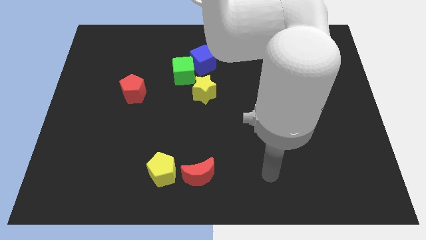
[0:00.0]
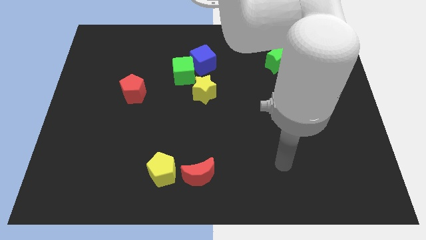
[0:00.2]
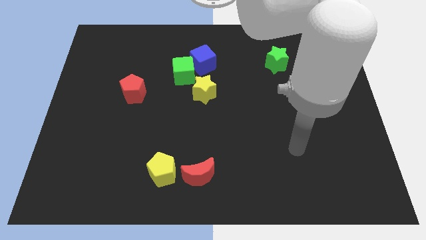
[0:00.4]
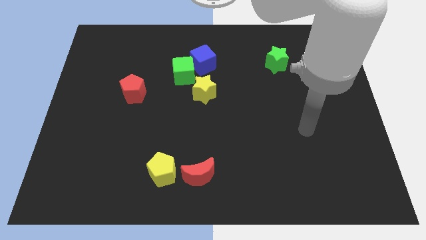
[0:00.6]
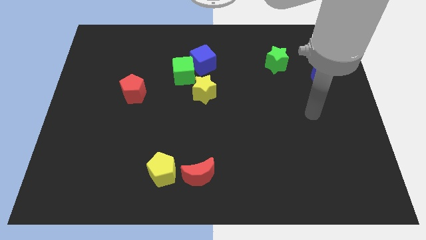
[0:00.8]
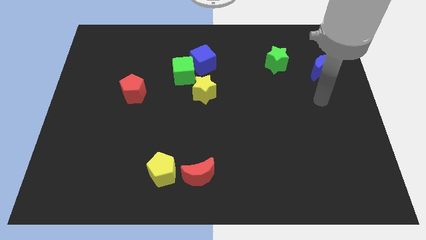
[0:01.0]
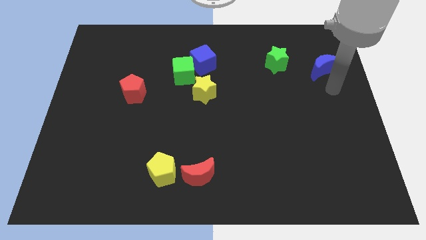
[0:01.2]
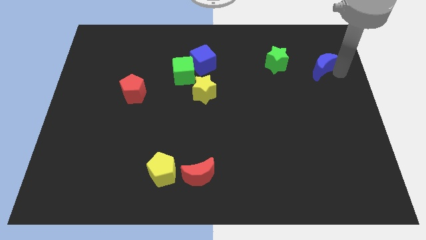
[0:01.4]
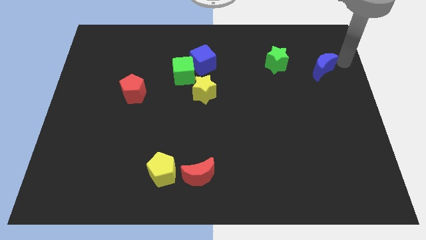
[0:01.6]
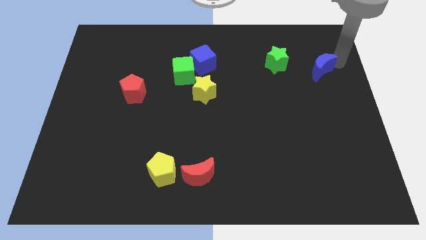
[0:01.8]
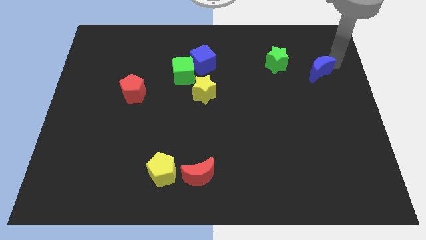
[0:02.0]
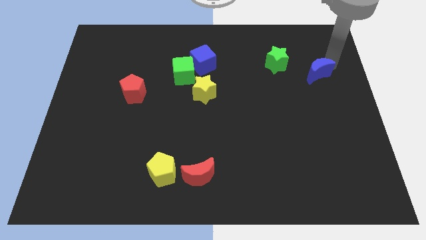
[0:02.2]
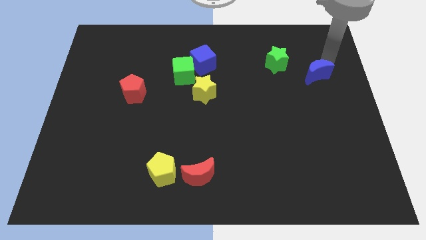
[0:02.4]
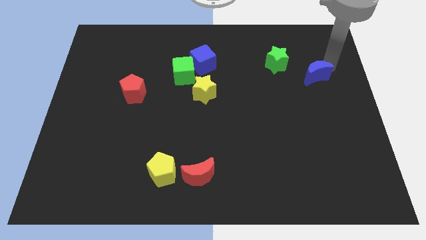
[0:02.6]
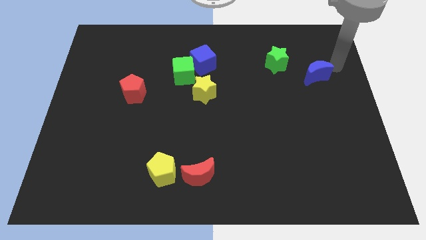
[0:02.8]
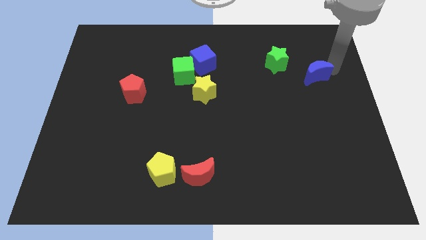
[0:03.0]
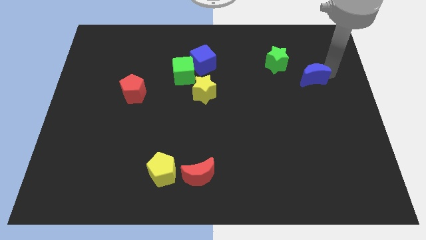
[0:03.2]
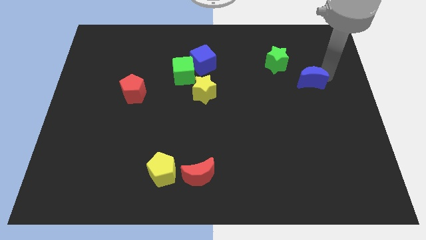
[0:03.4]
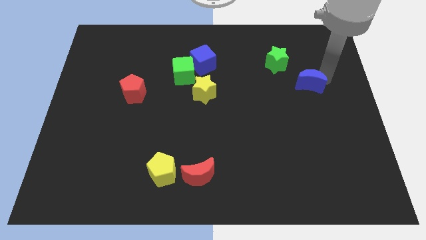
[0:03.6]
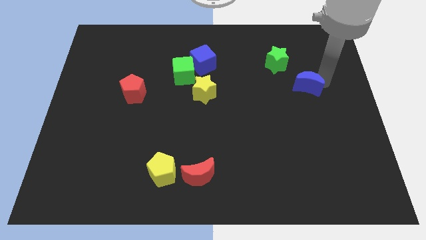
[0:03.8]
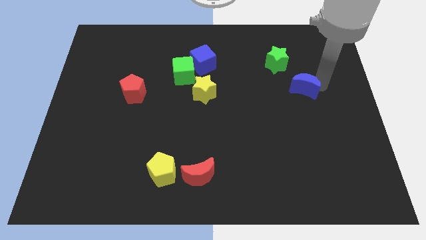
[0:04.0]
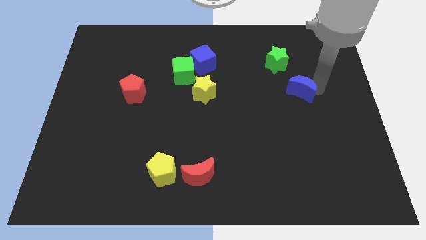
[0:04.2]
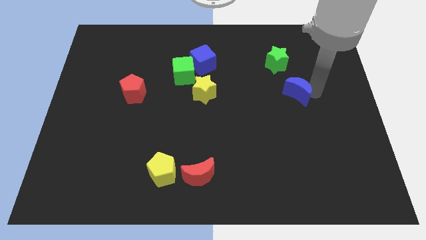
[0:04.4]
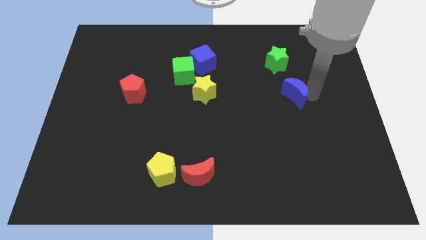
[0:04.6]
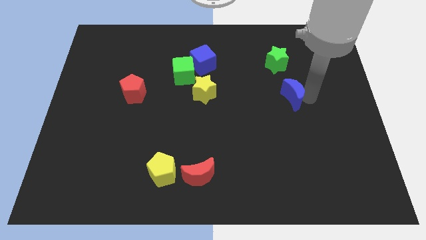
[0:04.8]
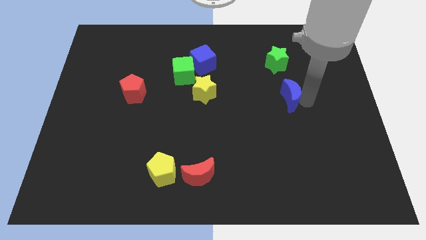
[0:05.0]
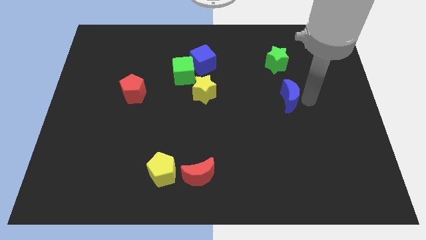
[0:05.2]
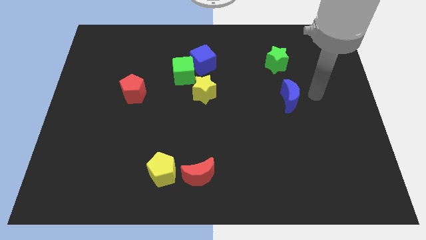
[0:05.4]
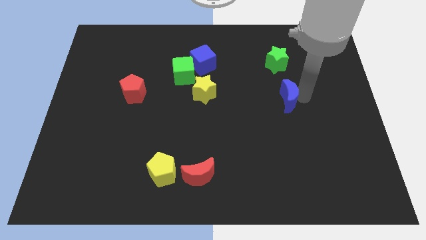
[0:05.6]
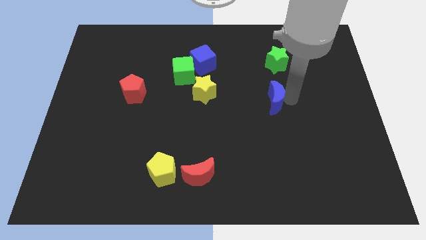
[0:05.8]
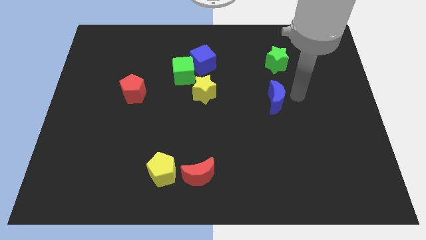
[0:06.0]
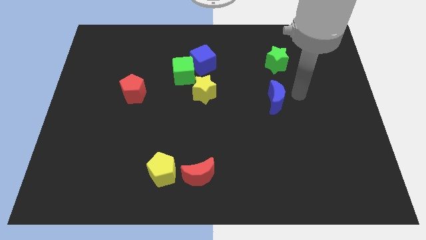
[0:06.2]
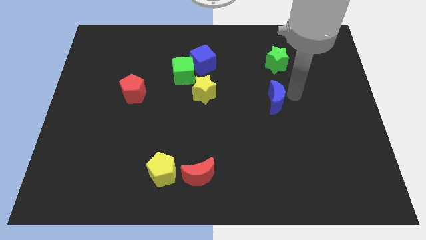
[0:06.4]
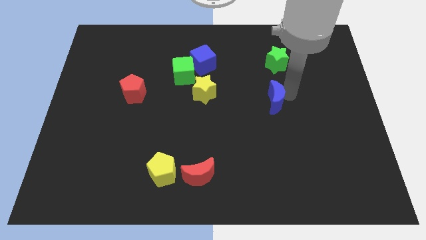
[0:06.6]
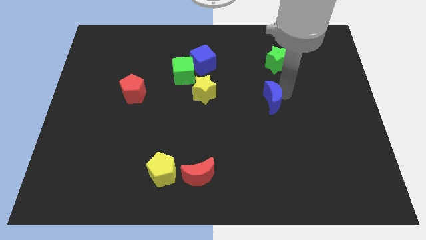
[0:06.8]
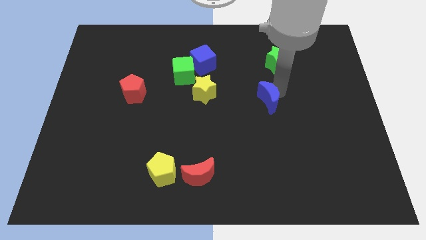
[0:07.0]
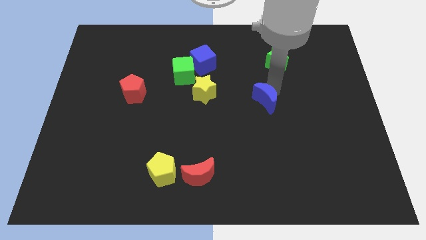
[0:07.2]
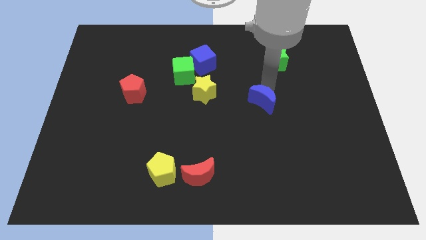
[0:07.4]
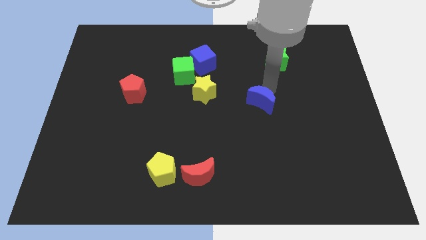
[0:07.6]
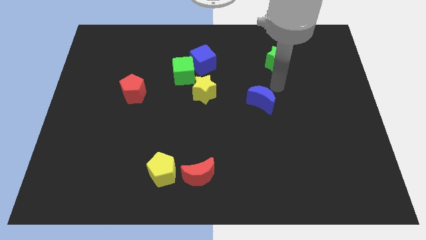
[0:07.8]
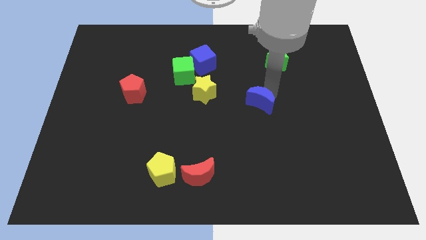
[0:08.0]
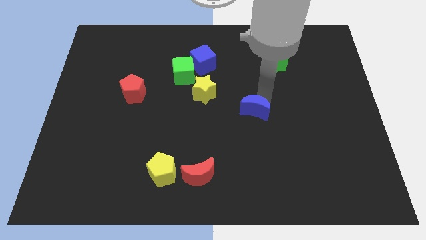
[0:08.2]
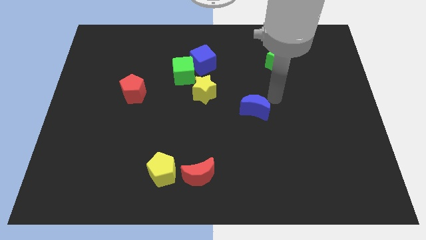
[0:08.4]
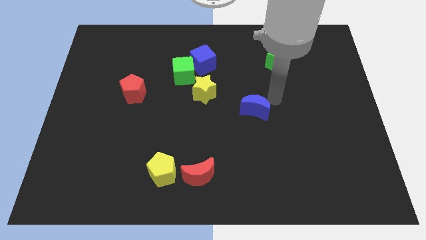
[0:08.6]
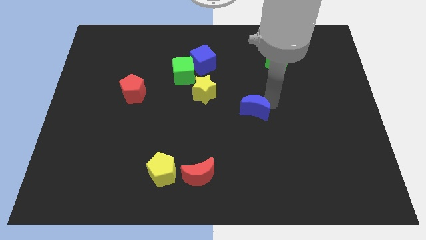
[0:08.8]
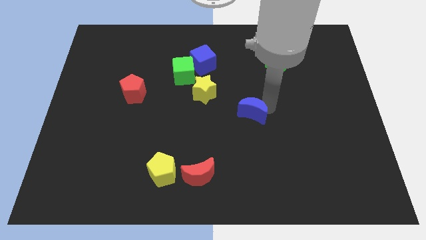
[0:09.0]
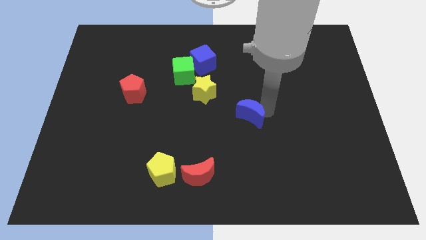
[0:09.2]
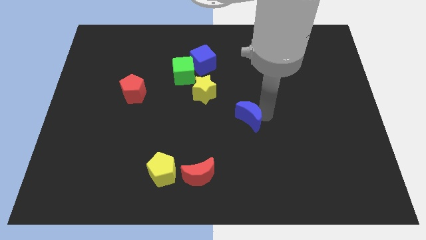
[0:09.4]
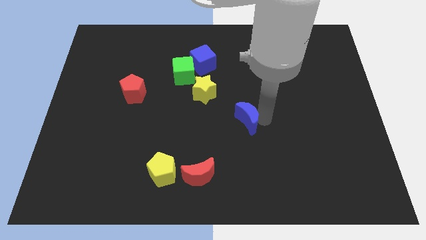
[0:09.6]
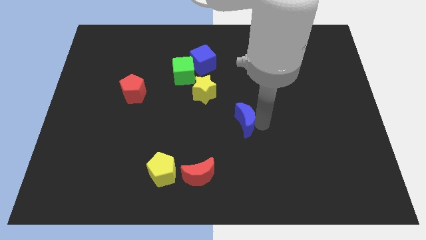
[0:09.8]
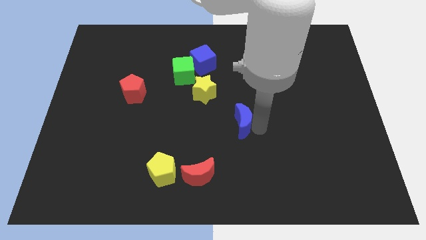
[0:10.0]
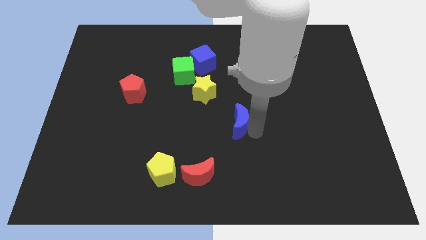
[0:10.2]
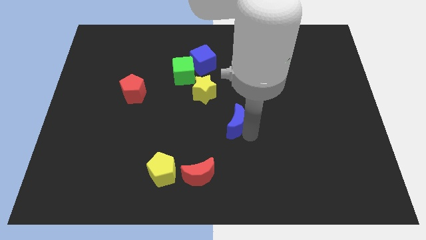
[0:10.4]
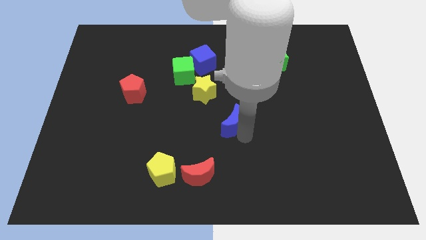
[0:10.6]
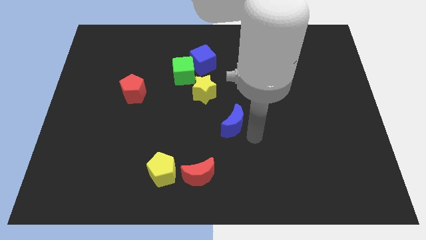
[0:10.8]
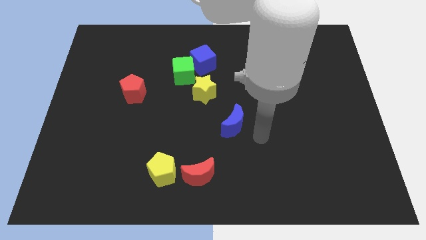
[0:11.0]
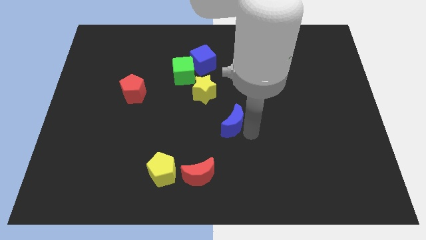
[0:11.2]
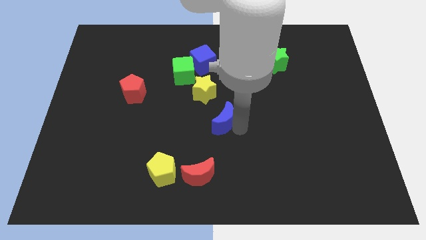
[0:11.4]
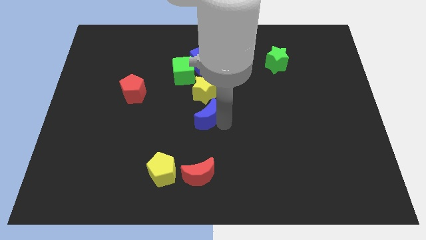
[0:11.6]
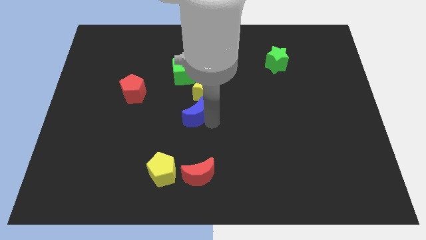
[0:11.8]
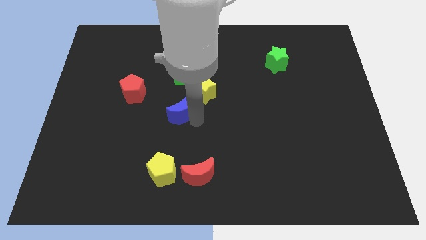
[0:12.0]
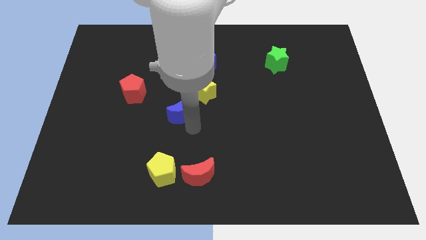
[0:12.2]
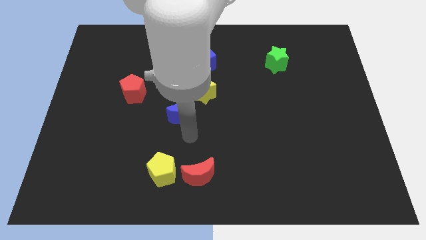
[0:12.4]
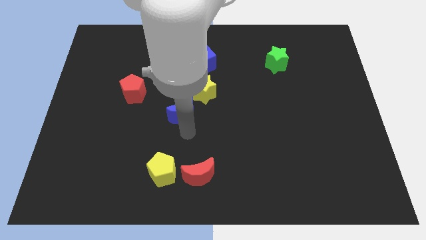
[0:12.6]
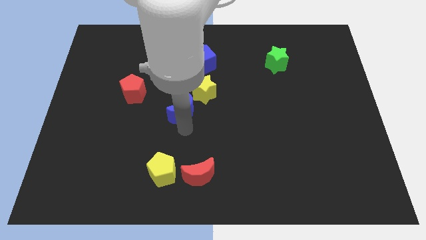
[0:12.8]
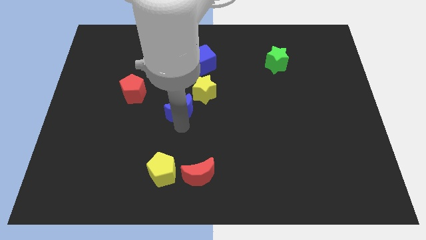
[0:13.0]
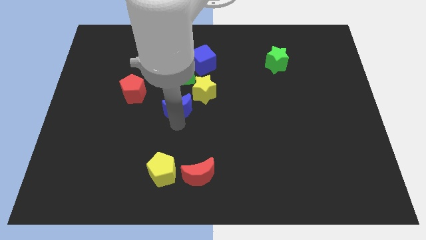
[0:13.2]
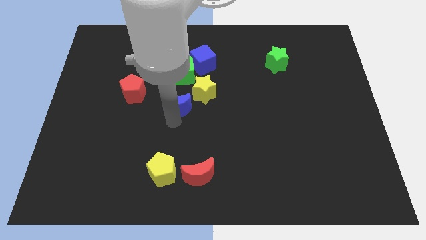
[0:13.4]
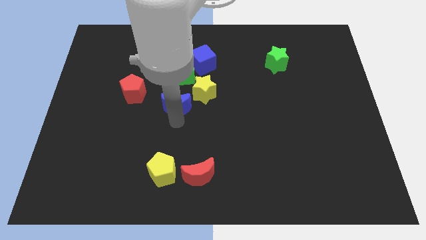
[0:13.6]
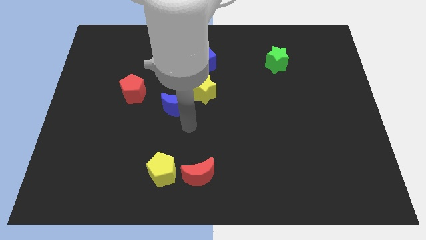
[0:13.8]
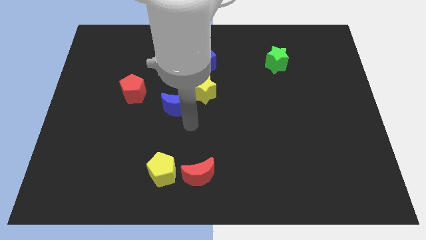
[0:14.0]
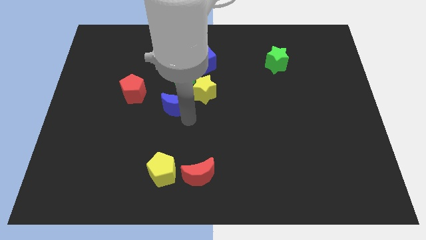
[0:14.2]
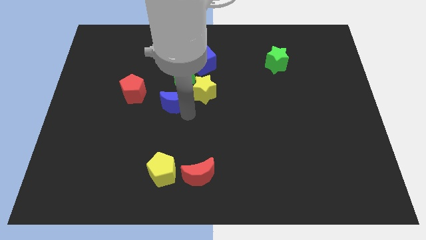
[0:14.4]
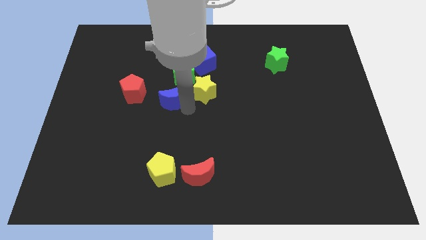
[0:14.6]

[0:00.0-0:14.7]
push the blue moon diagonally down and to the left of the green cube
